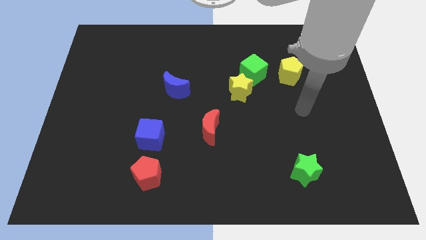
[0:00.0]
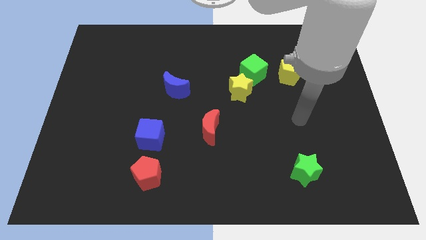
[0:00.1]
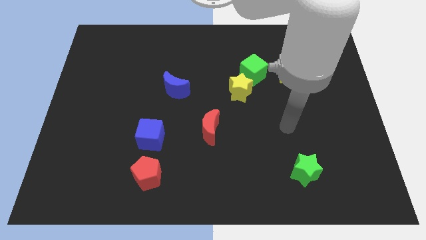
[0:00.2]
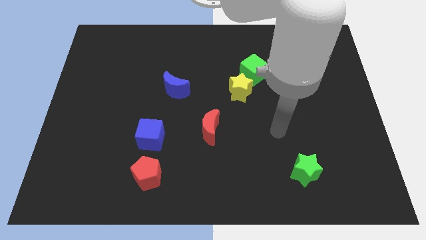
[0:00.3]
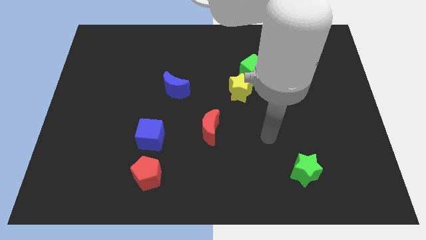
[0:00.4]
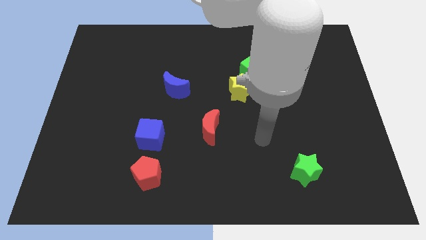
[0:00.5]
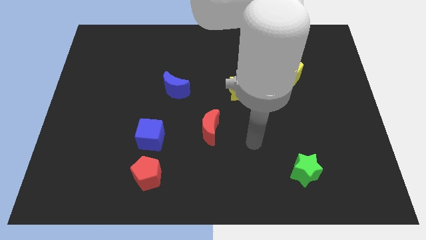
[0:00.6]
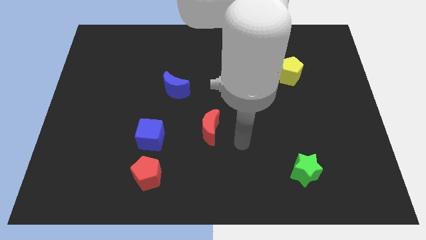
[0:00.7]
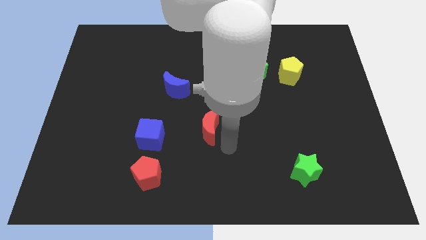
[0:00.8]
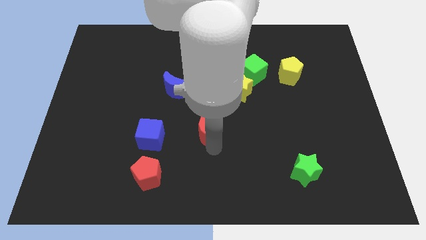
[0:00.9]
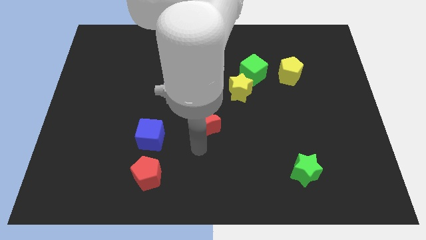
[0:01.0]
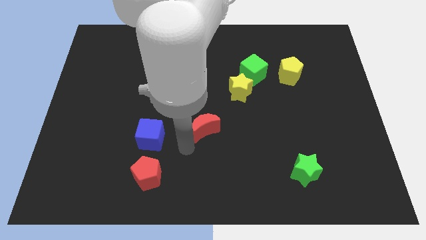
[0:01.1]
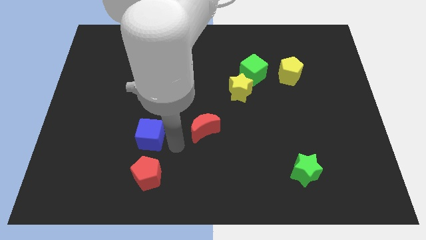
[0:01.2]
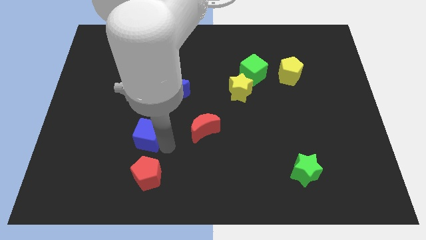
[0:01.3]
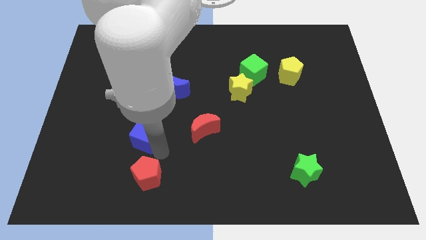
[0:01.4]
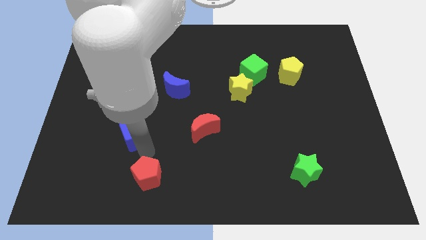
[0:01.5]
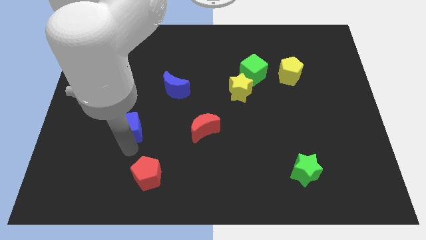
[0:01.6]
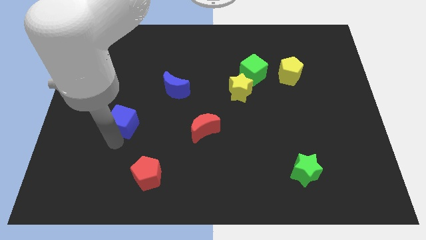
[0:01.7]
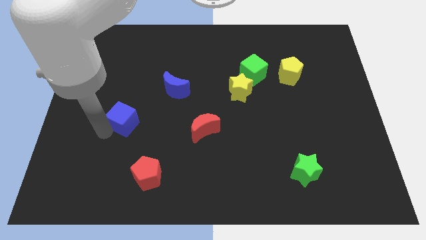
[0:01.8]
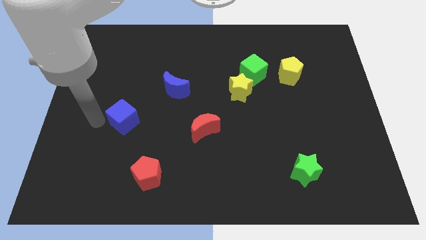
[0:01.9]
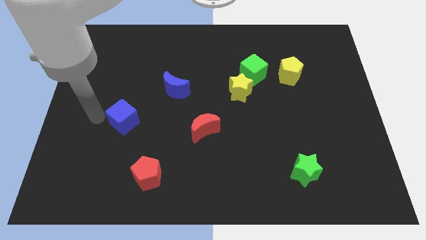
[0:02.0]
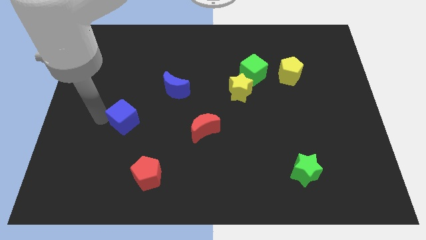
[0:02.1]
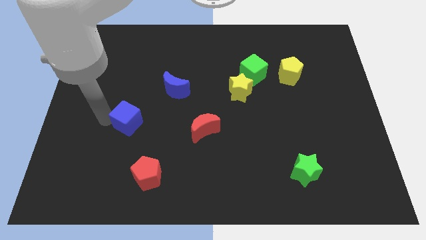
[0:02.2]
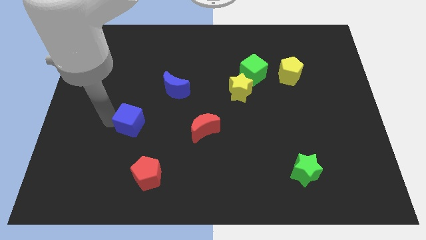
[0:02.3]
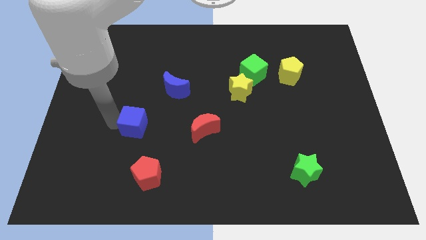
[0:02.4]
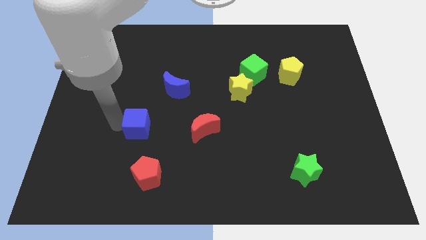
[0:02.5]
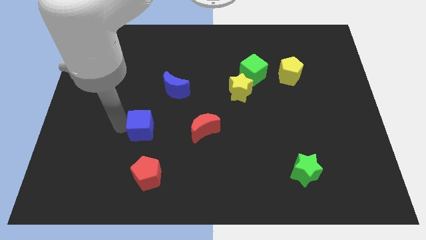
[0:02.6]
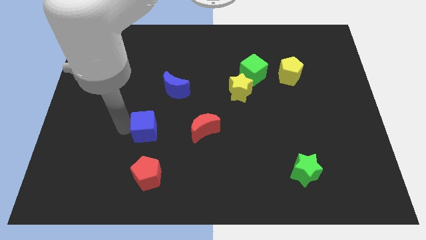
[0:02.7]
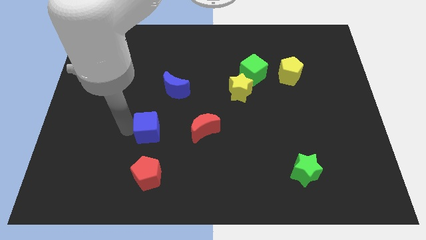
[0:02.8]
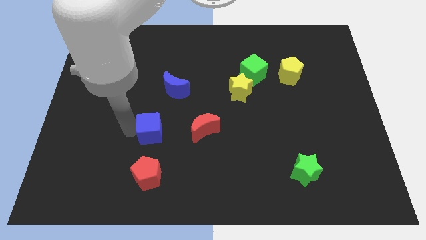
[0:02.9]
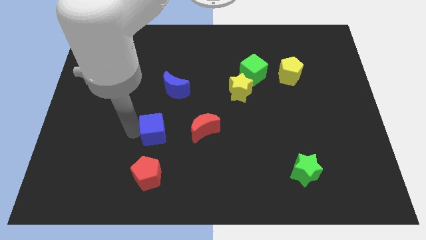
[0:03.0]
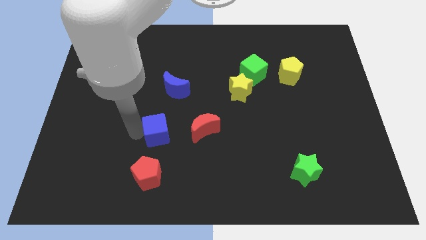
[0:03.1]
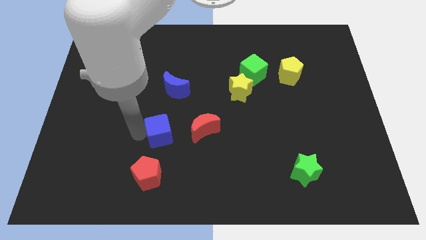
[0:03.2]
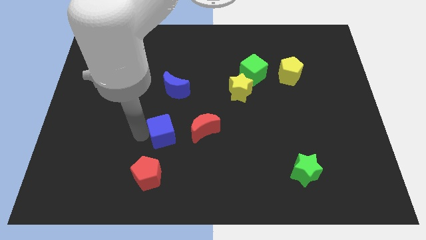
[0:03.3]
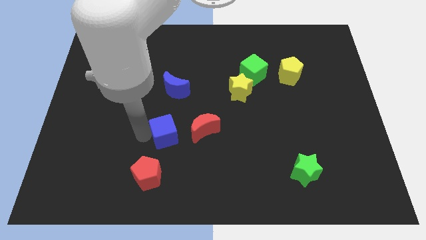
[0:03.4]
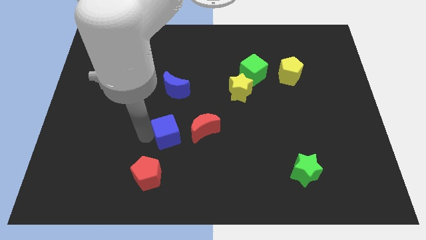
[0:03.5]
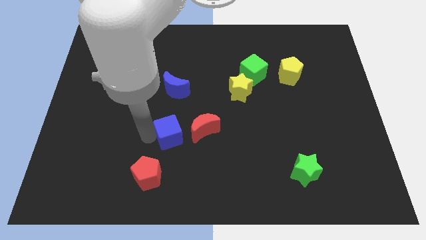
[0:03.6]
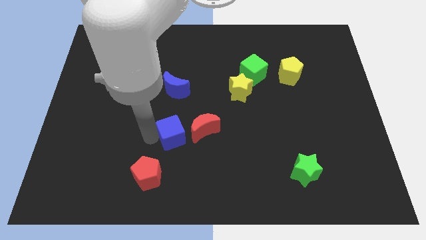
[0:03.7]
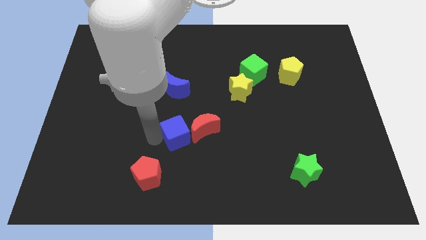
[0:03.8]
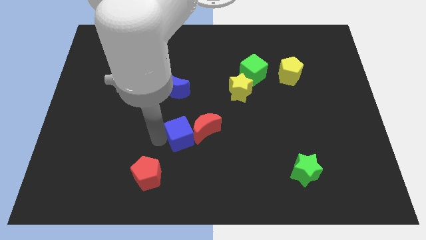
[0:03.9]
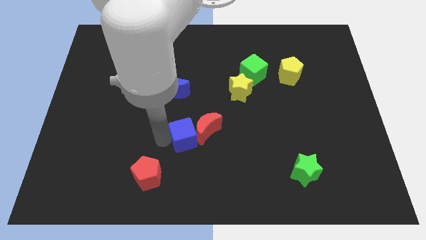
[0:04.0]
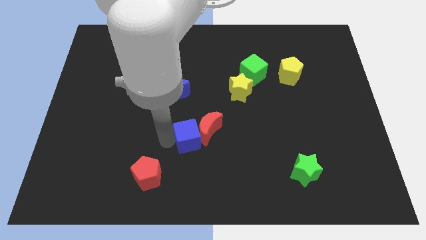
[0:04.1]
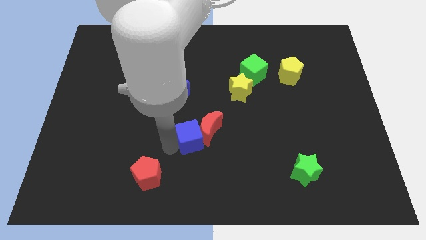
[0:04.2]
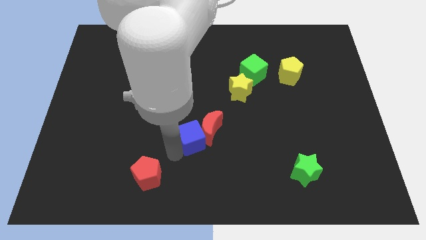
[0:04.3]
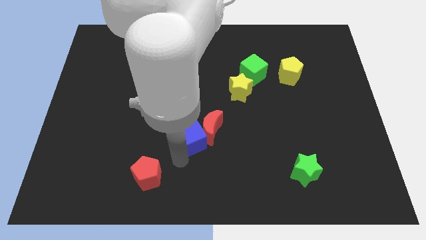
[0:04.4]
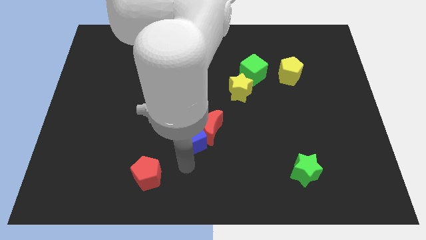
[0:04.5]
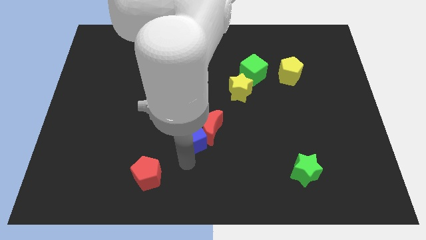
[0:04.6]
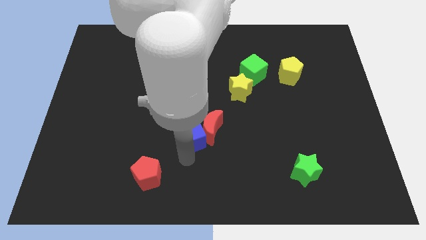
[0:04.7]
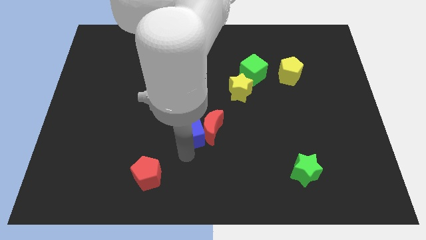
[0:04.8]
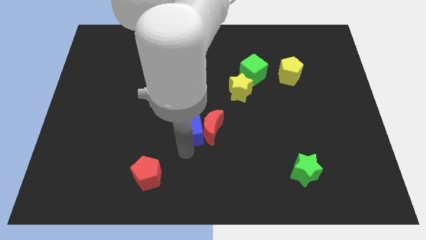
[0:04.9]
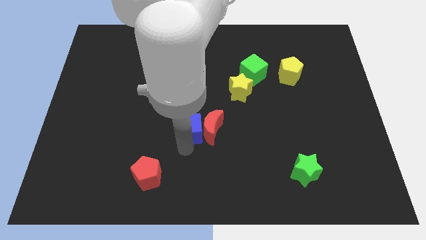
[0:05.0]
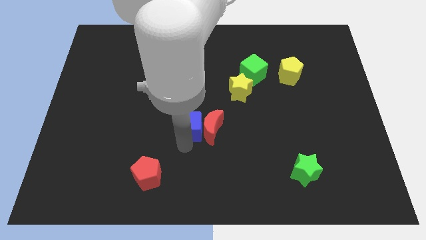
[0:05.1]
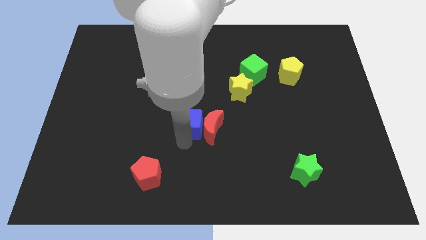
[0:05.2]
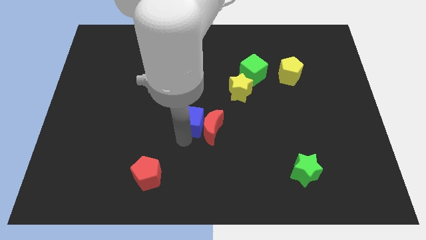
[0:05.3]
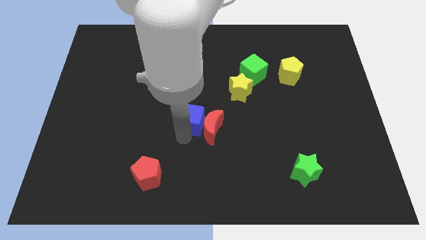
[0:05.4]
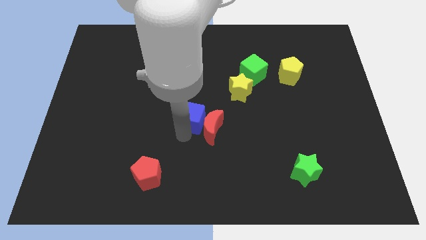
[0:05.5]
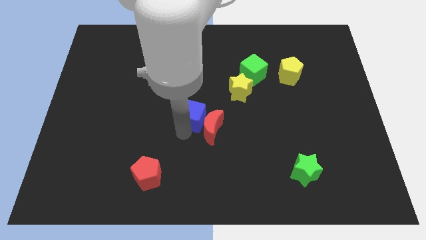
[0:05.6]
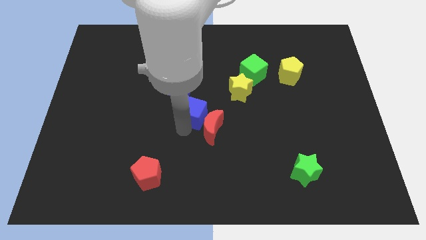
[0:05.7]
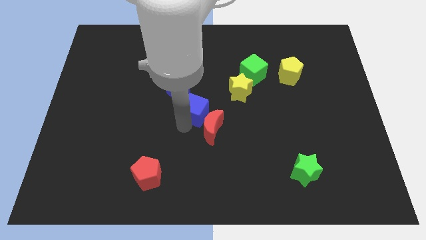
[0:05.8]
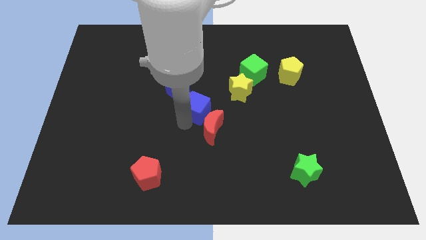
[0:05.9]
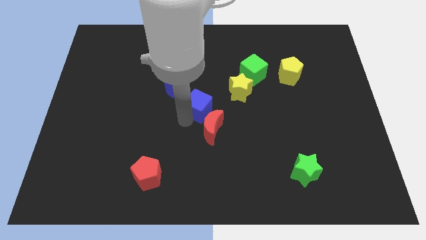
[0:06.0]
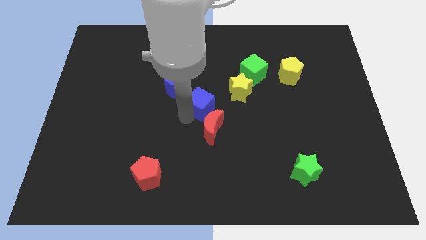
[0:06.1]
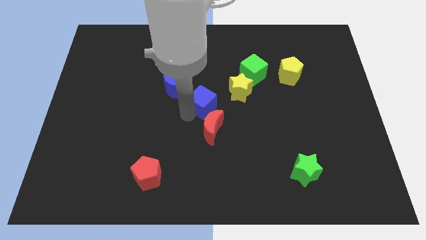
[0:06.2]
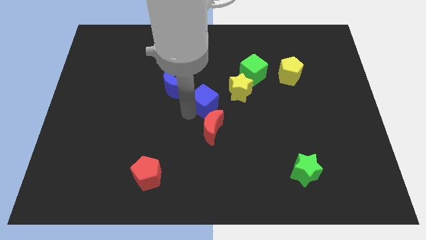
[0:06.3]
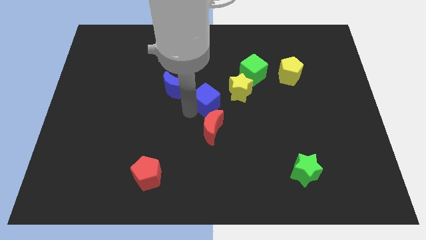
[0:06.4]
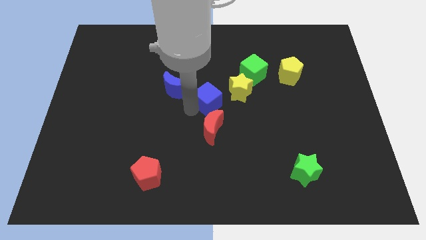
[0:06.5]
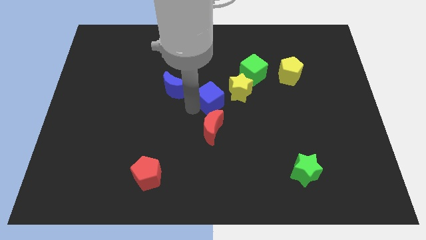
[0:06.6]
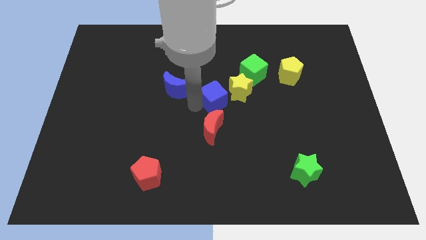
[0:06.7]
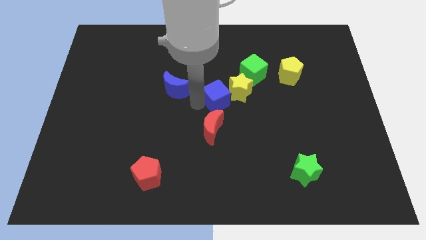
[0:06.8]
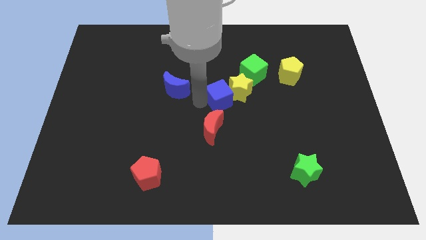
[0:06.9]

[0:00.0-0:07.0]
put the blue cube towards the yellow star
